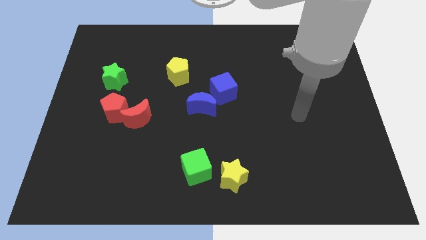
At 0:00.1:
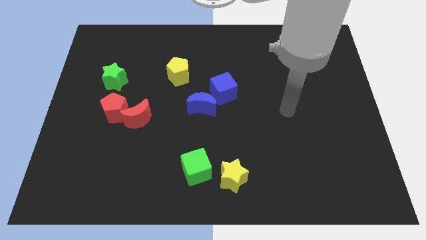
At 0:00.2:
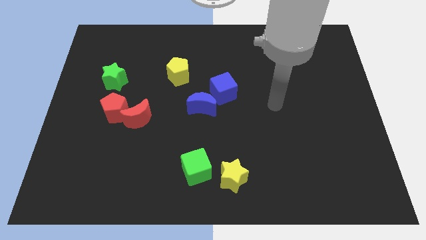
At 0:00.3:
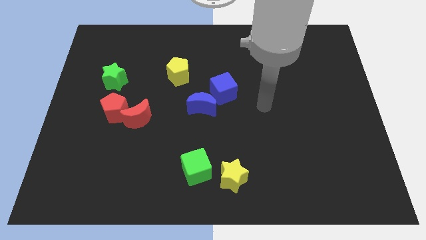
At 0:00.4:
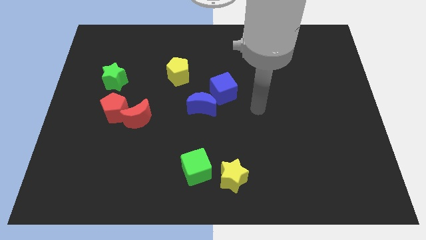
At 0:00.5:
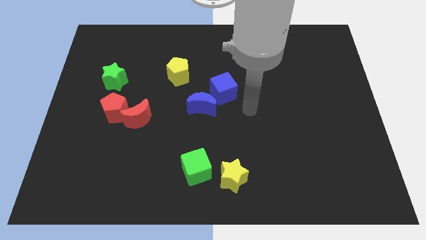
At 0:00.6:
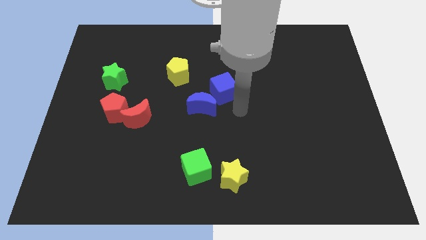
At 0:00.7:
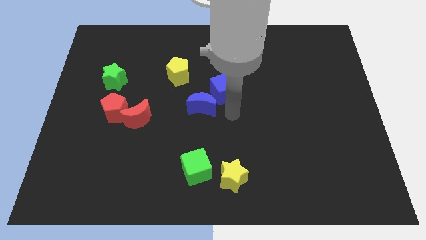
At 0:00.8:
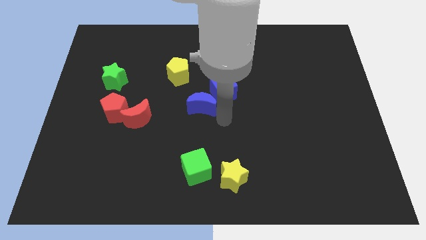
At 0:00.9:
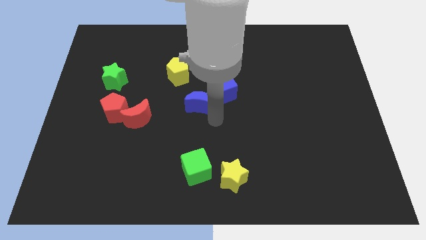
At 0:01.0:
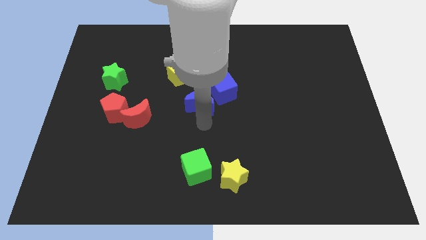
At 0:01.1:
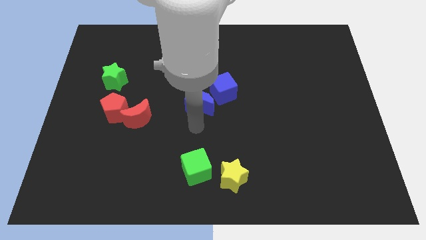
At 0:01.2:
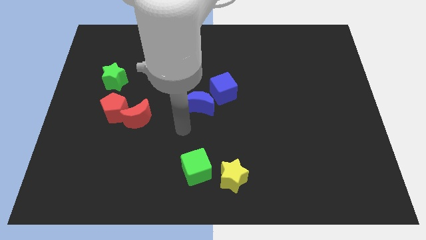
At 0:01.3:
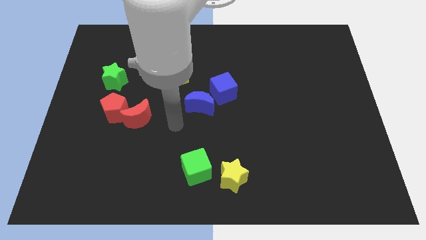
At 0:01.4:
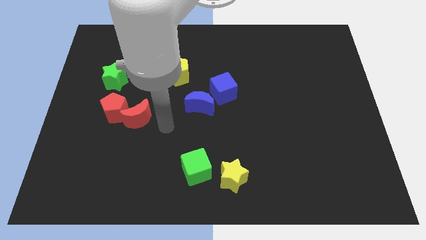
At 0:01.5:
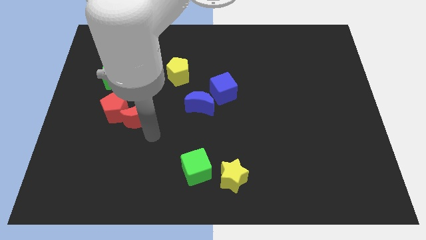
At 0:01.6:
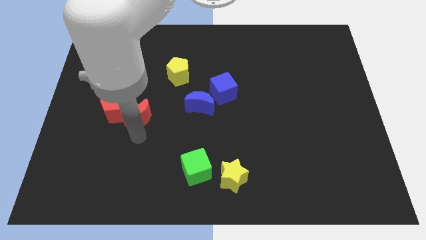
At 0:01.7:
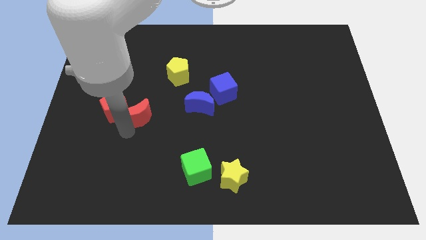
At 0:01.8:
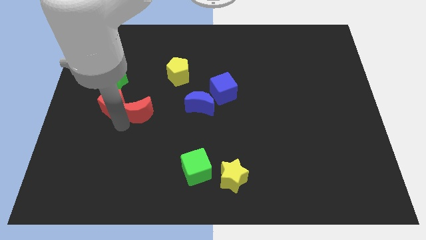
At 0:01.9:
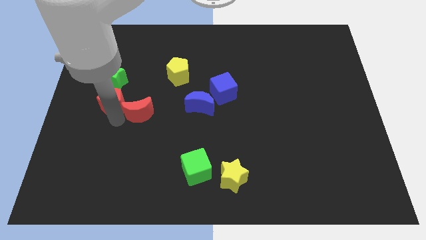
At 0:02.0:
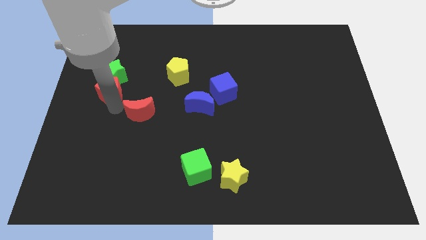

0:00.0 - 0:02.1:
pull the red moon apart from the red pentagon

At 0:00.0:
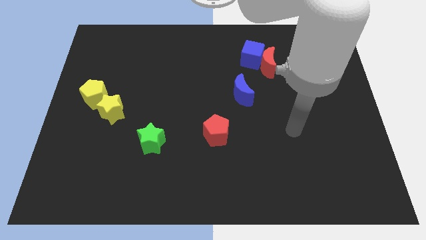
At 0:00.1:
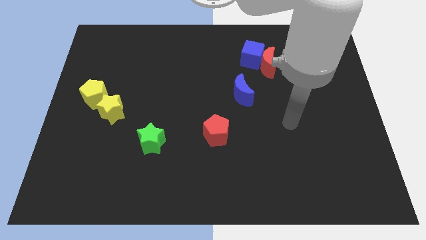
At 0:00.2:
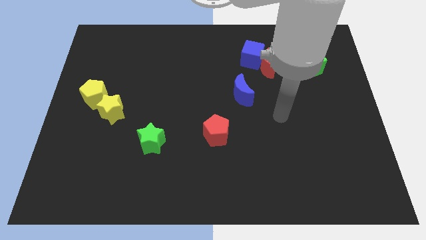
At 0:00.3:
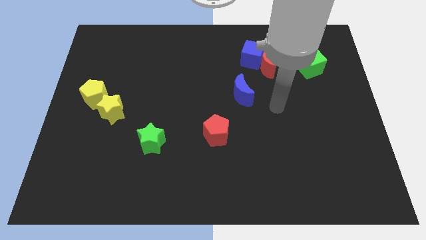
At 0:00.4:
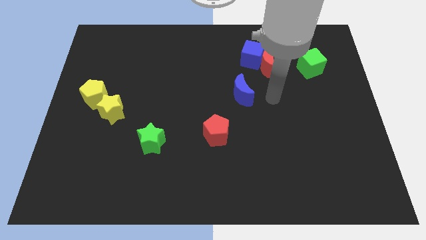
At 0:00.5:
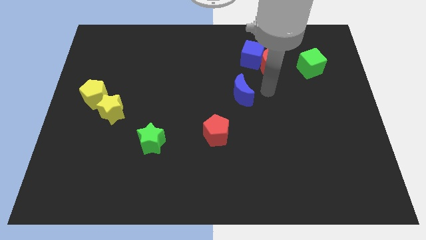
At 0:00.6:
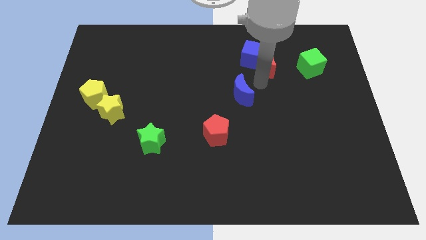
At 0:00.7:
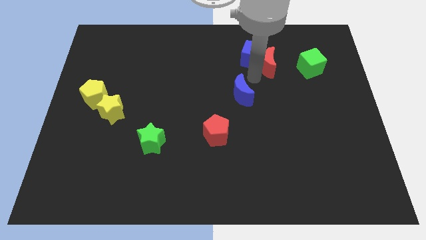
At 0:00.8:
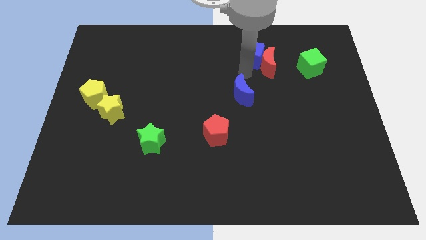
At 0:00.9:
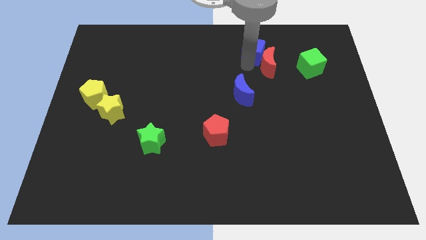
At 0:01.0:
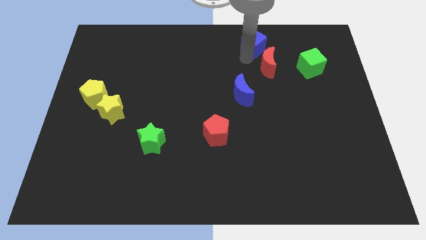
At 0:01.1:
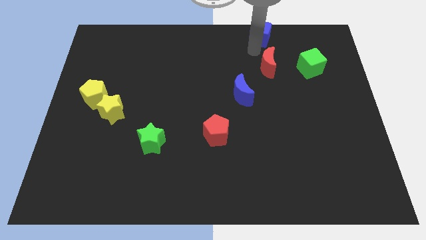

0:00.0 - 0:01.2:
separate the red moon from the blue cube

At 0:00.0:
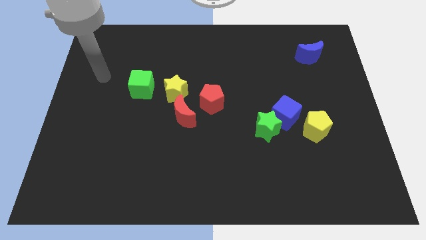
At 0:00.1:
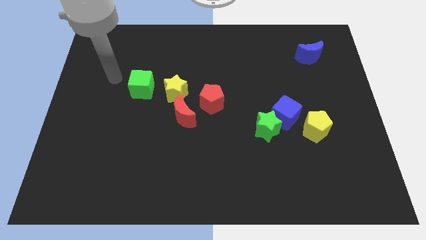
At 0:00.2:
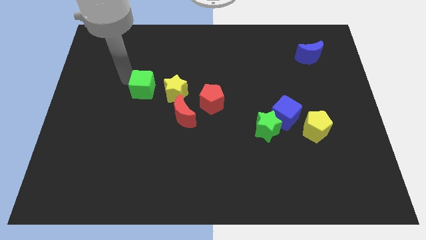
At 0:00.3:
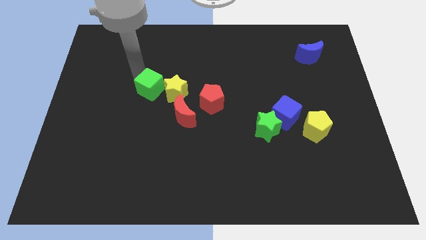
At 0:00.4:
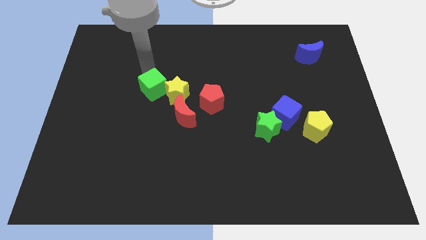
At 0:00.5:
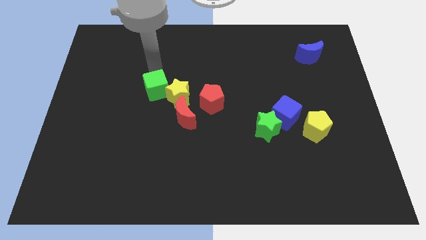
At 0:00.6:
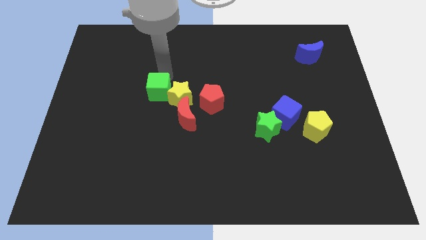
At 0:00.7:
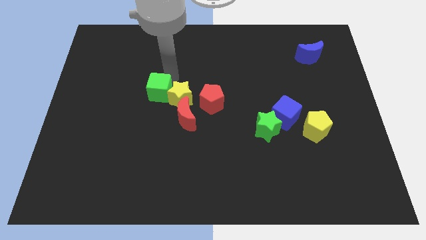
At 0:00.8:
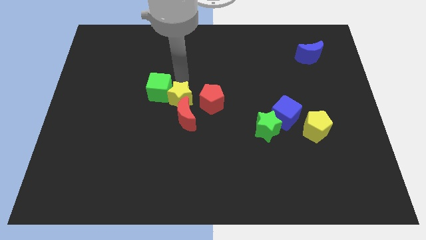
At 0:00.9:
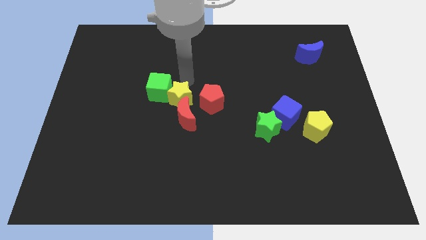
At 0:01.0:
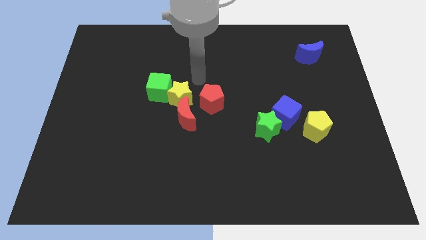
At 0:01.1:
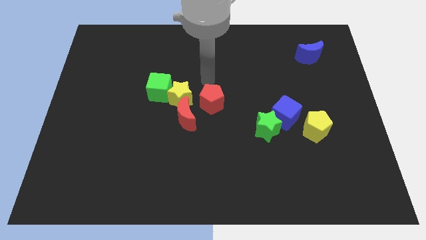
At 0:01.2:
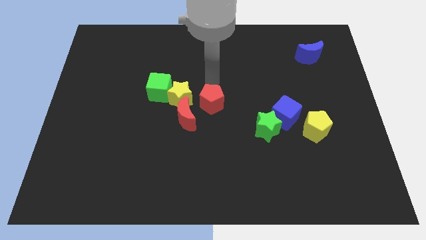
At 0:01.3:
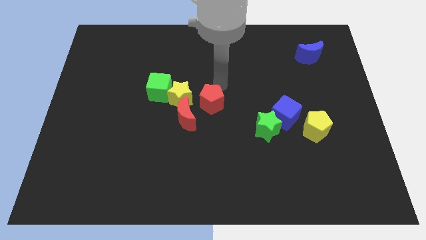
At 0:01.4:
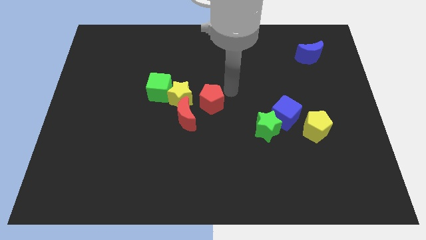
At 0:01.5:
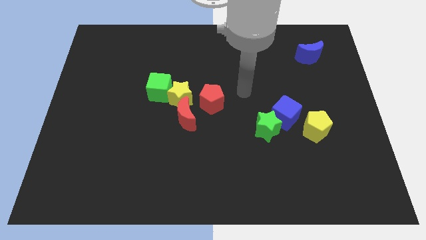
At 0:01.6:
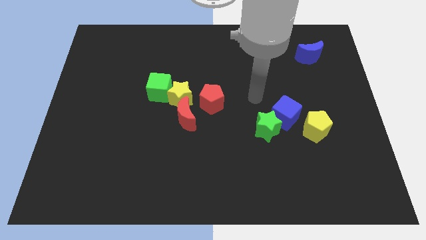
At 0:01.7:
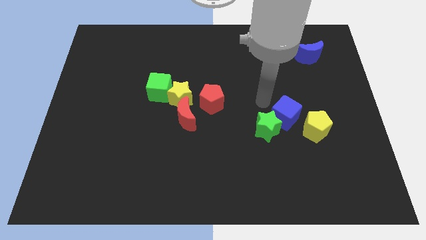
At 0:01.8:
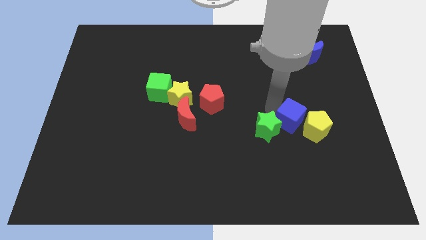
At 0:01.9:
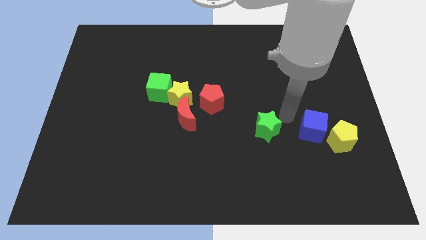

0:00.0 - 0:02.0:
separate the green star from the blue cube

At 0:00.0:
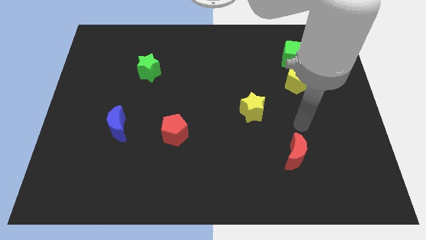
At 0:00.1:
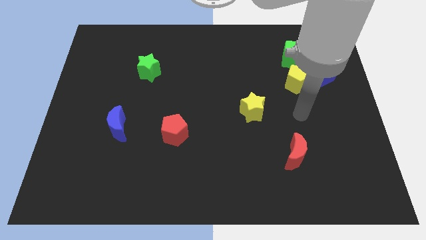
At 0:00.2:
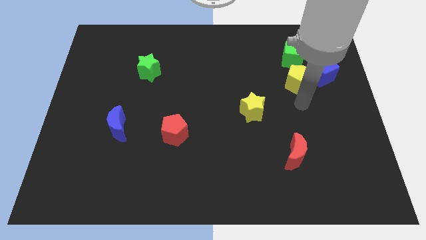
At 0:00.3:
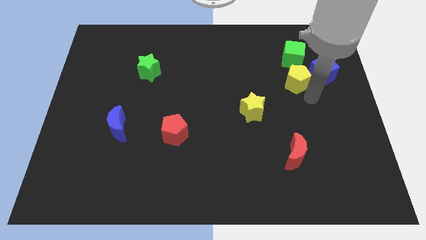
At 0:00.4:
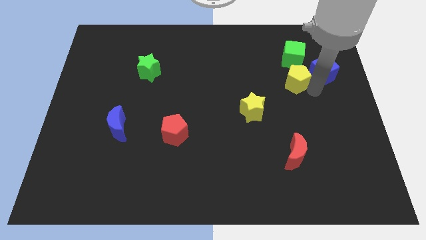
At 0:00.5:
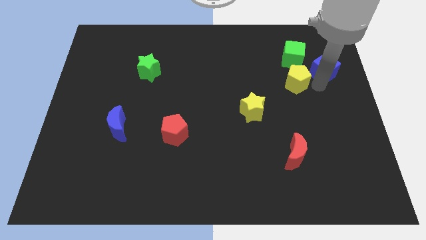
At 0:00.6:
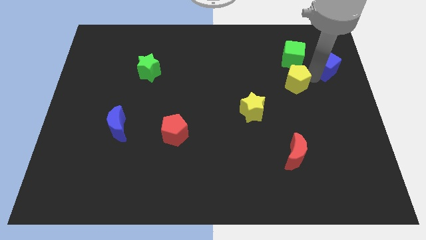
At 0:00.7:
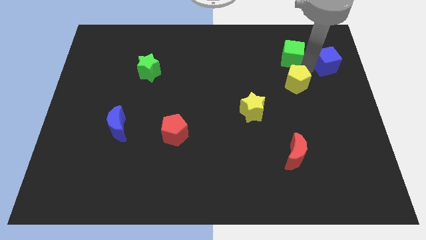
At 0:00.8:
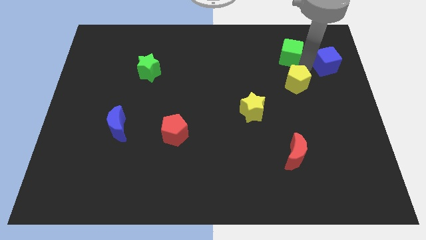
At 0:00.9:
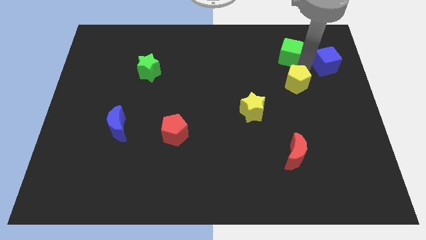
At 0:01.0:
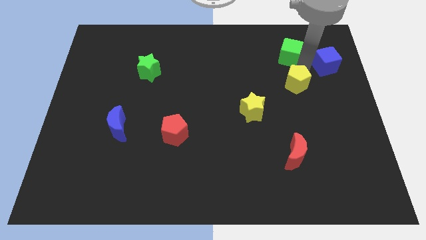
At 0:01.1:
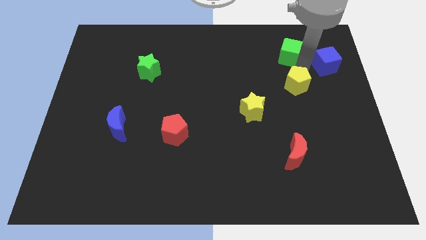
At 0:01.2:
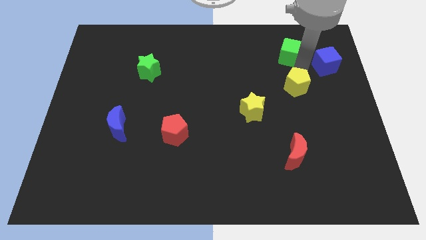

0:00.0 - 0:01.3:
separate the yellow pentagon from the blue cube and green cube

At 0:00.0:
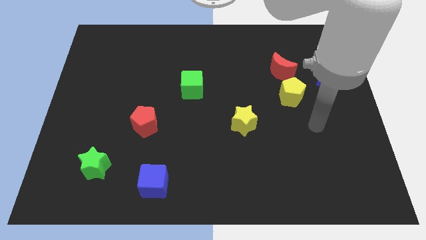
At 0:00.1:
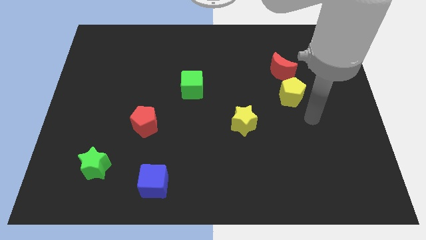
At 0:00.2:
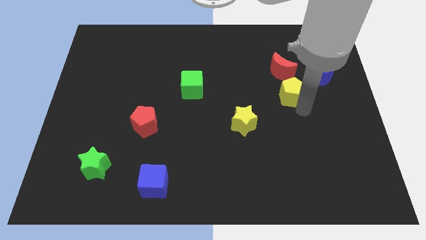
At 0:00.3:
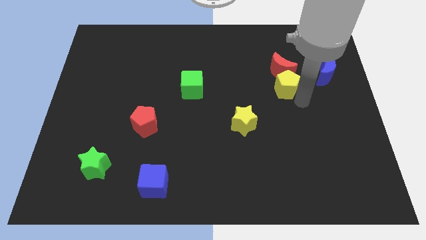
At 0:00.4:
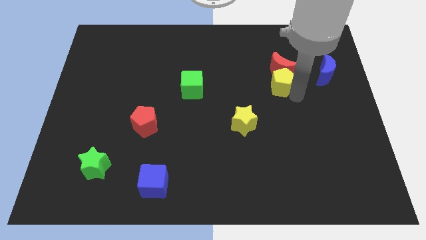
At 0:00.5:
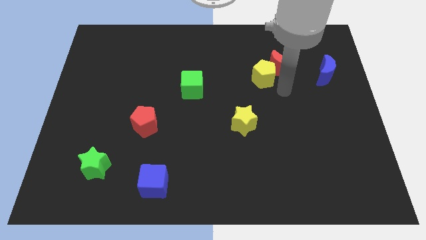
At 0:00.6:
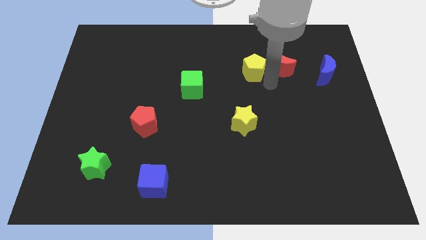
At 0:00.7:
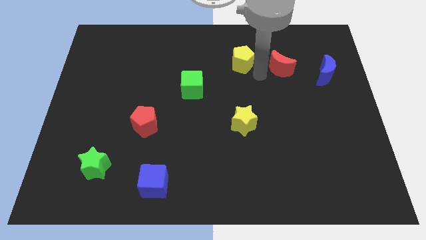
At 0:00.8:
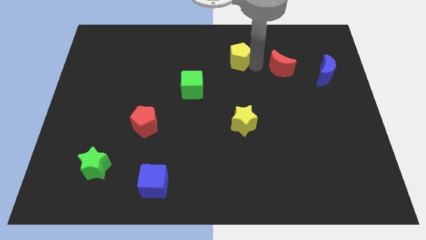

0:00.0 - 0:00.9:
separate the red moon from the yellow pentagon

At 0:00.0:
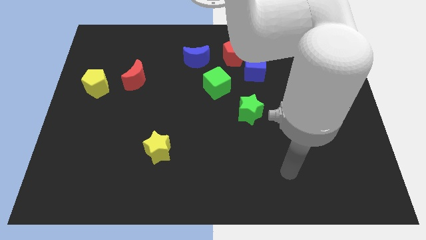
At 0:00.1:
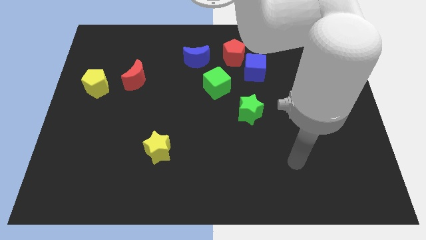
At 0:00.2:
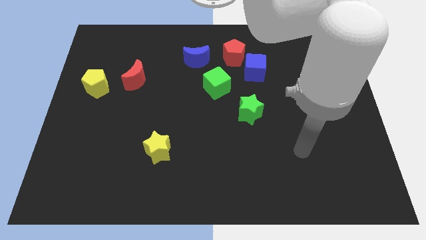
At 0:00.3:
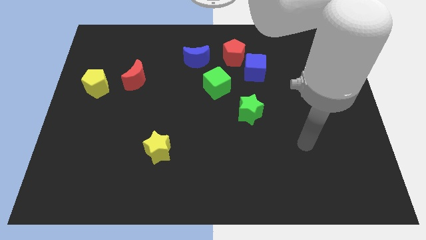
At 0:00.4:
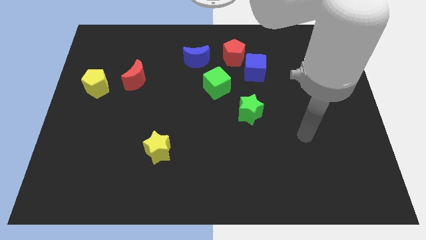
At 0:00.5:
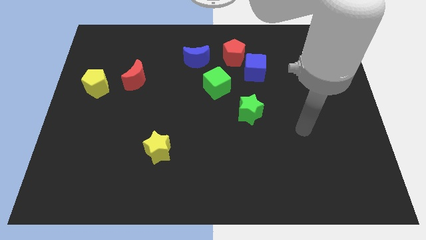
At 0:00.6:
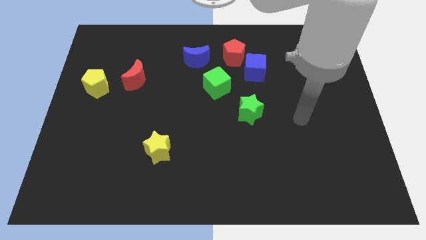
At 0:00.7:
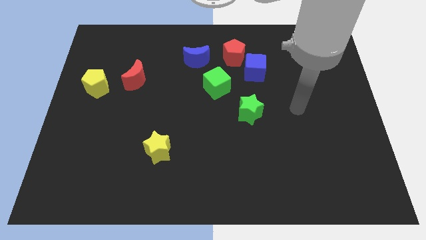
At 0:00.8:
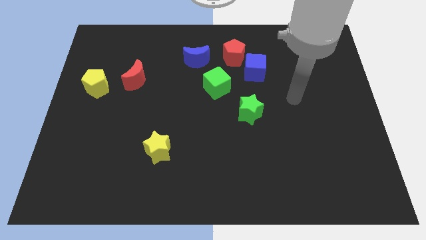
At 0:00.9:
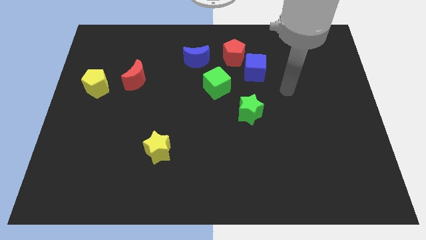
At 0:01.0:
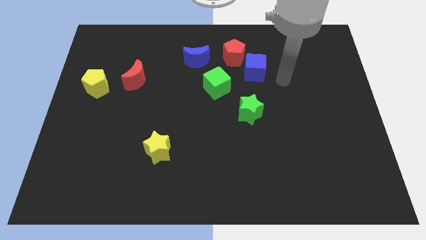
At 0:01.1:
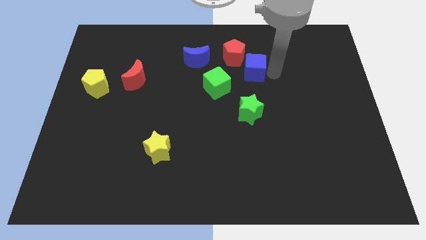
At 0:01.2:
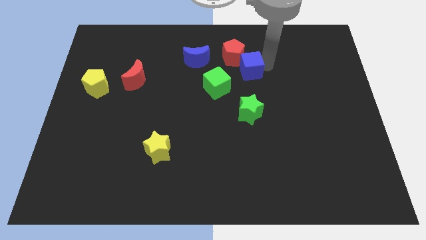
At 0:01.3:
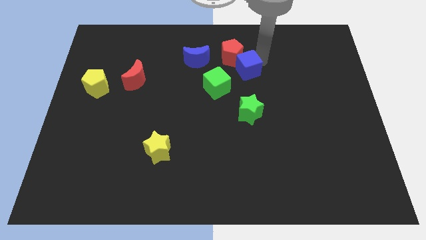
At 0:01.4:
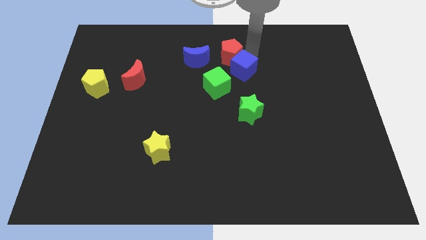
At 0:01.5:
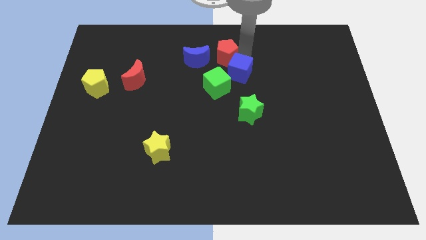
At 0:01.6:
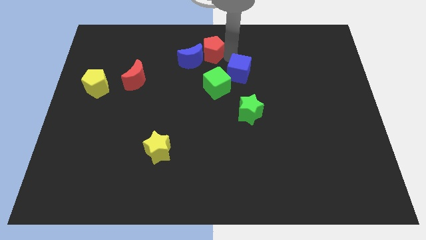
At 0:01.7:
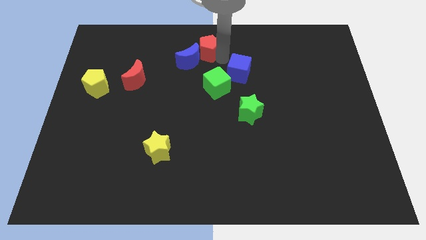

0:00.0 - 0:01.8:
pull the blue cube apart from the red pentagon

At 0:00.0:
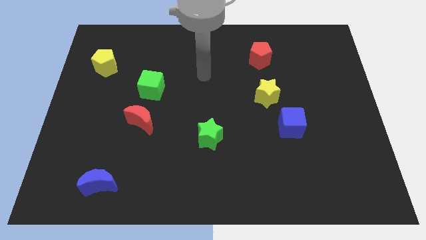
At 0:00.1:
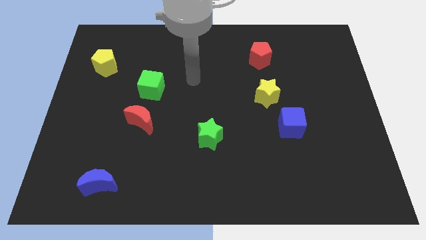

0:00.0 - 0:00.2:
pull the red moon apart from the green cube
